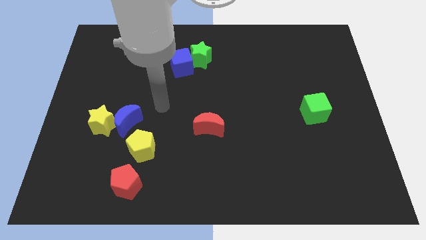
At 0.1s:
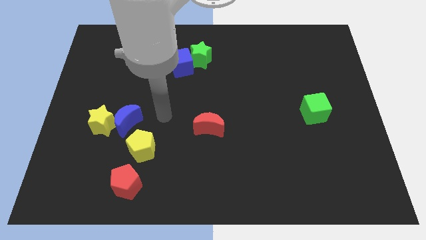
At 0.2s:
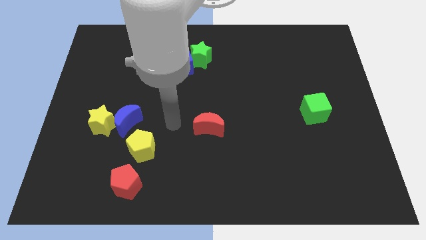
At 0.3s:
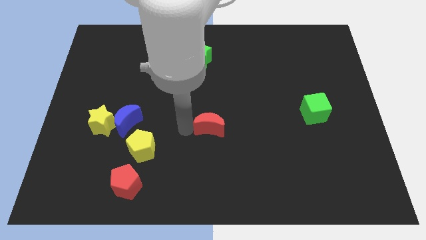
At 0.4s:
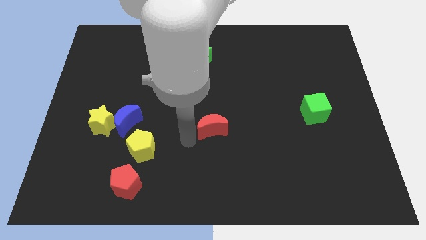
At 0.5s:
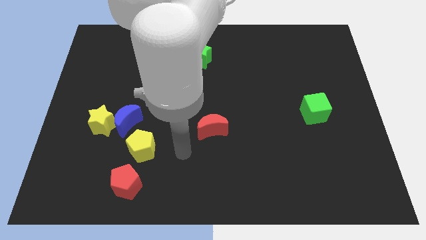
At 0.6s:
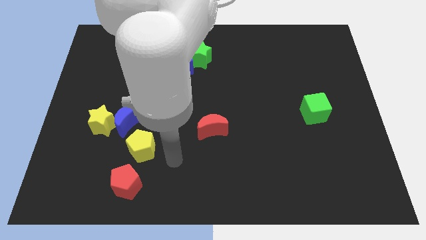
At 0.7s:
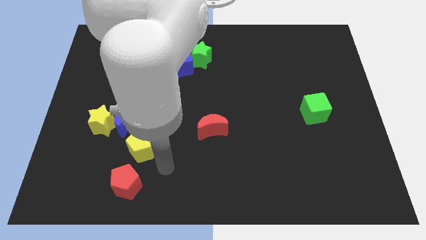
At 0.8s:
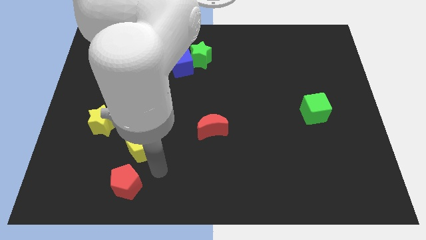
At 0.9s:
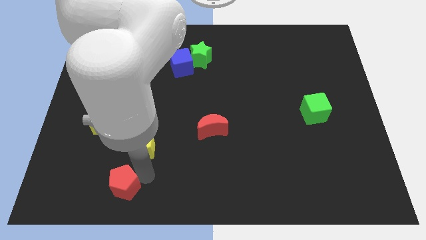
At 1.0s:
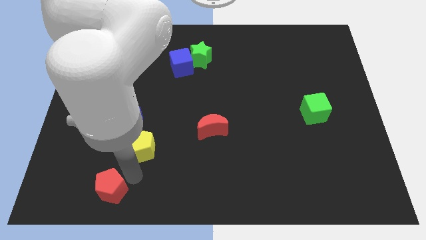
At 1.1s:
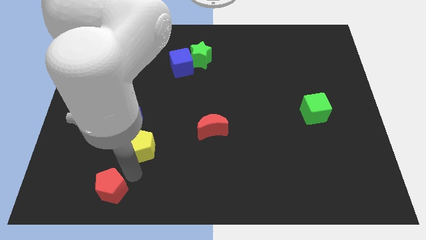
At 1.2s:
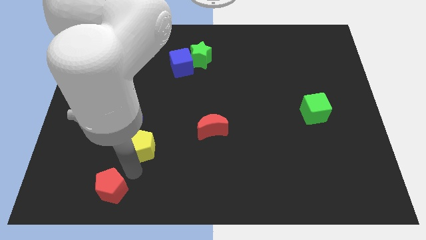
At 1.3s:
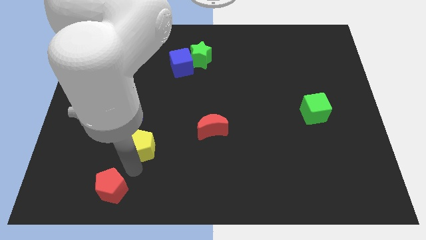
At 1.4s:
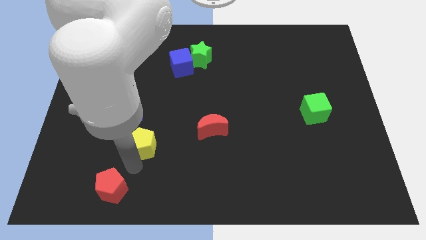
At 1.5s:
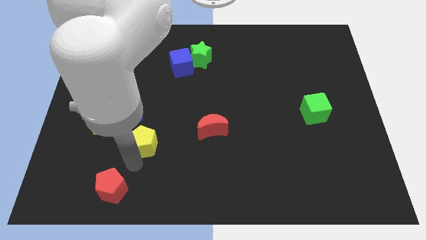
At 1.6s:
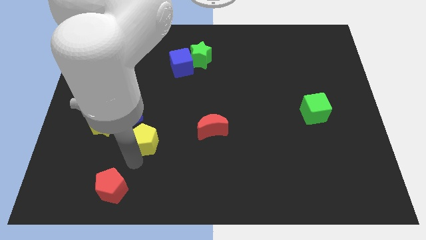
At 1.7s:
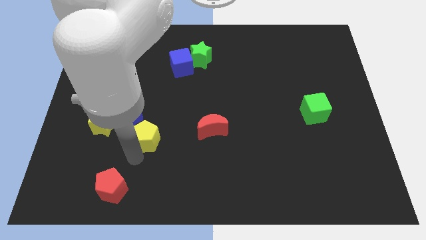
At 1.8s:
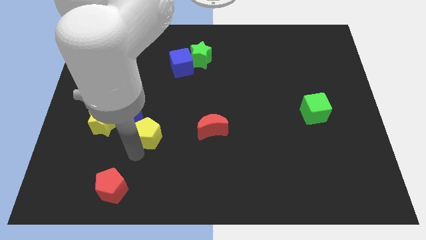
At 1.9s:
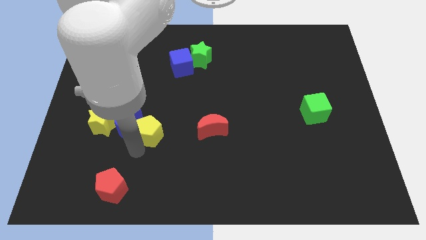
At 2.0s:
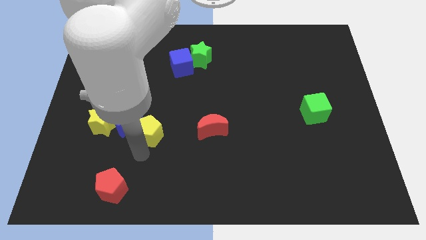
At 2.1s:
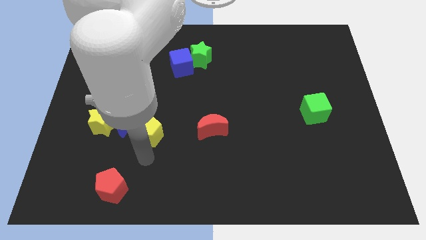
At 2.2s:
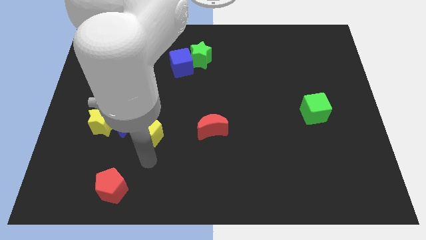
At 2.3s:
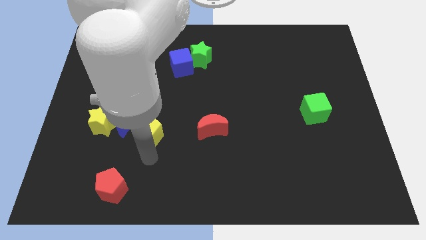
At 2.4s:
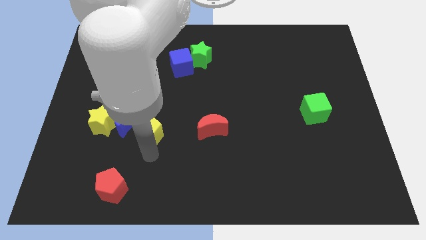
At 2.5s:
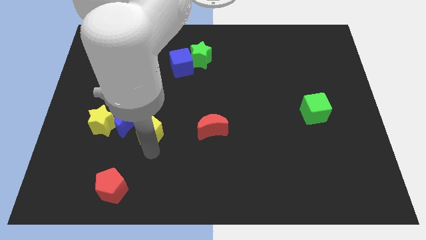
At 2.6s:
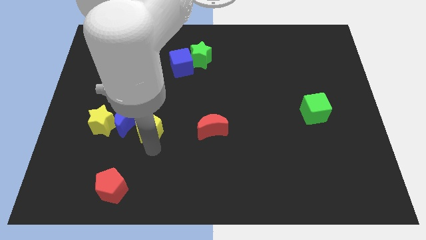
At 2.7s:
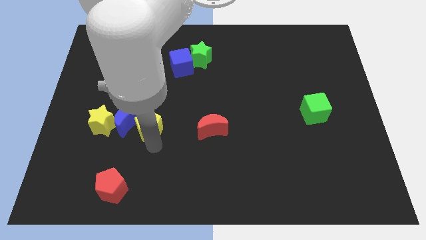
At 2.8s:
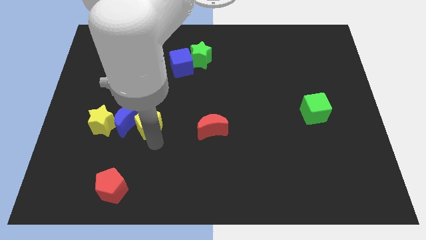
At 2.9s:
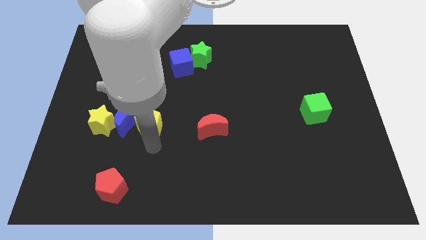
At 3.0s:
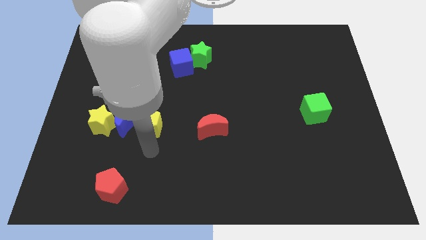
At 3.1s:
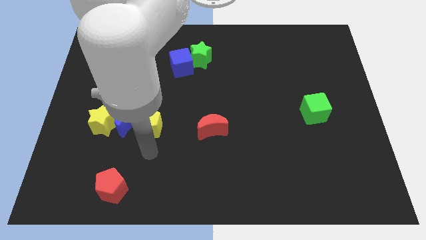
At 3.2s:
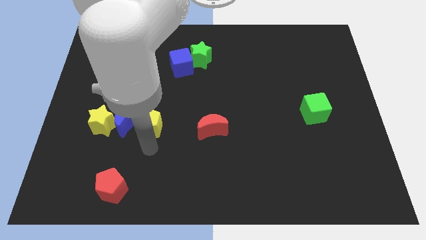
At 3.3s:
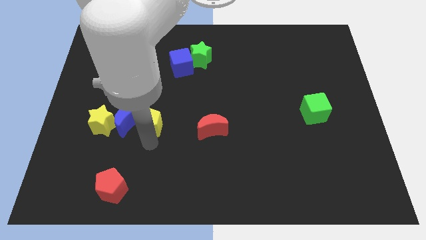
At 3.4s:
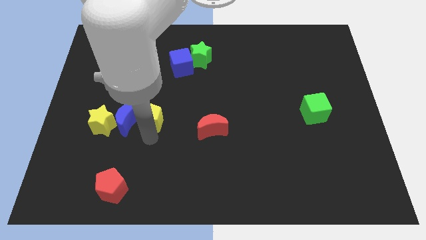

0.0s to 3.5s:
slide the yellow pentagon somewhat upwards

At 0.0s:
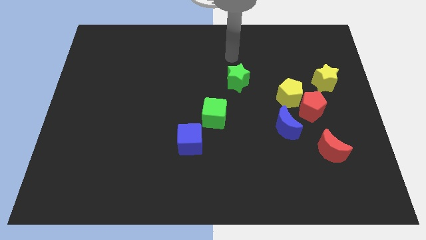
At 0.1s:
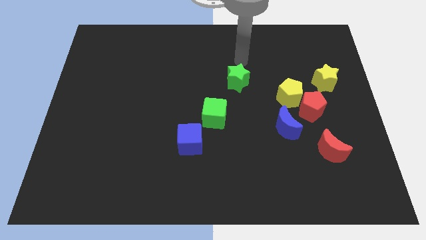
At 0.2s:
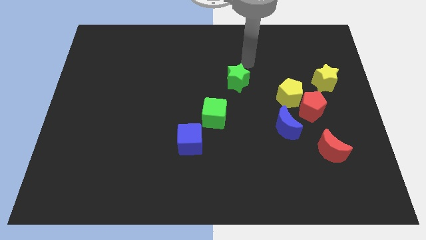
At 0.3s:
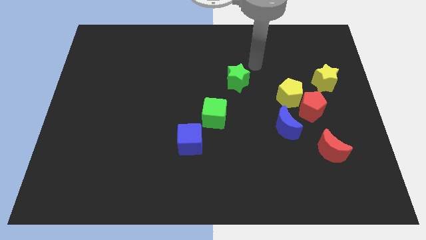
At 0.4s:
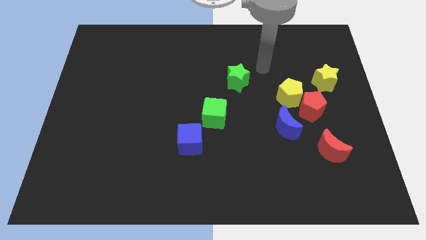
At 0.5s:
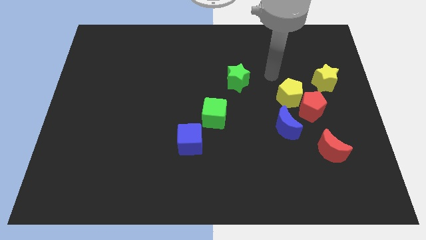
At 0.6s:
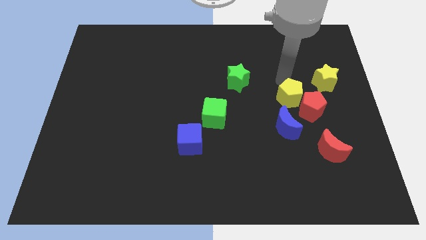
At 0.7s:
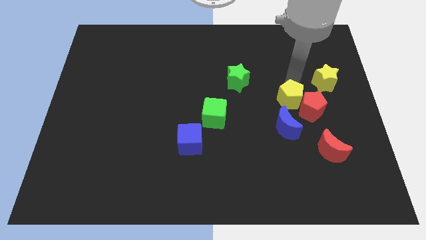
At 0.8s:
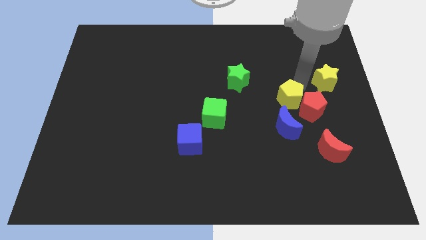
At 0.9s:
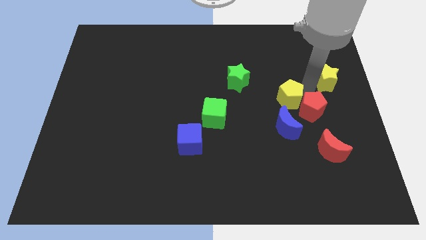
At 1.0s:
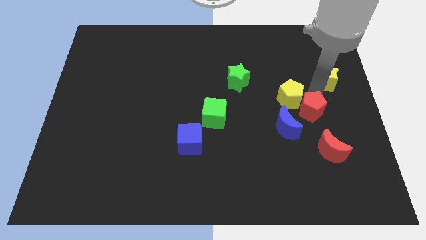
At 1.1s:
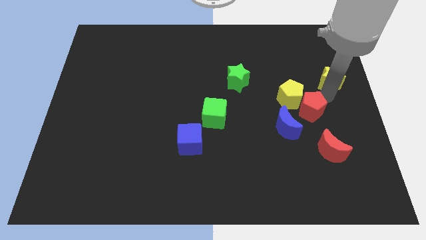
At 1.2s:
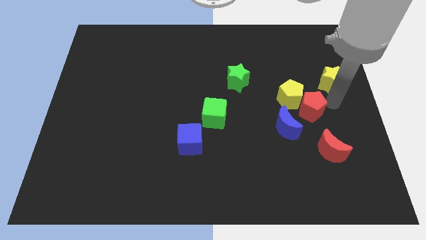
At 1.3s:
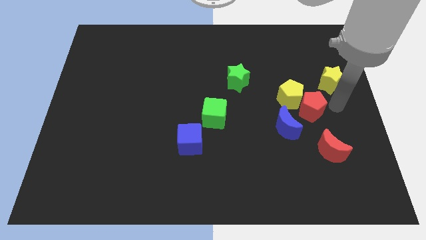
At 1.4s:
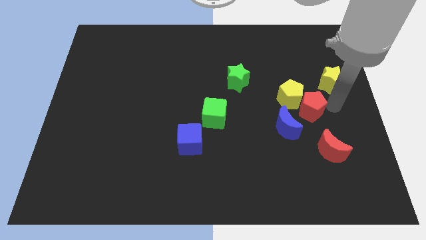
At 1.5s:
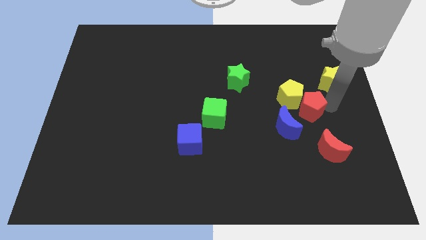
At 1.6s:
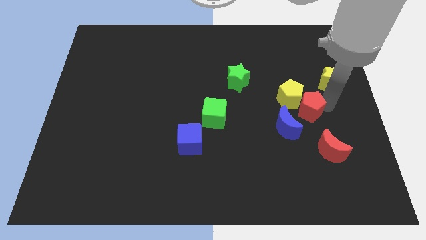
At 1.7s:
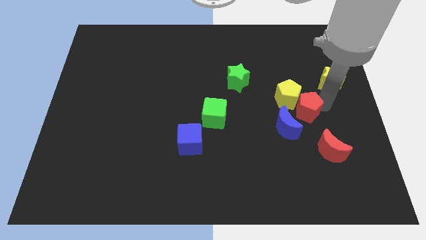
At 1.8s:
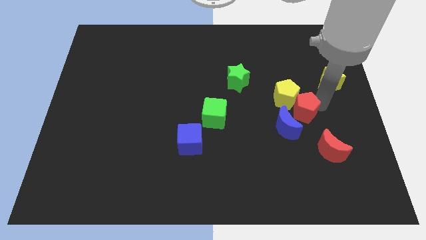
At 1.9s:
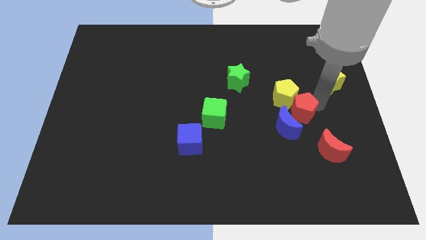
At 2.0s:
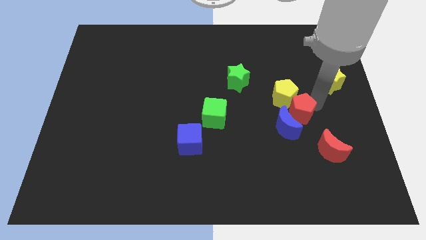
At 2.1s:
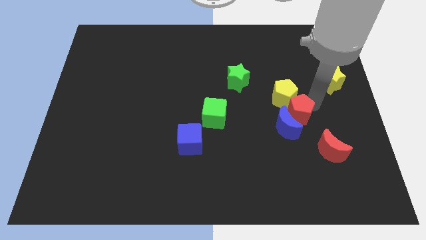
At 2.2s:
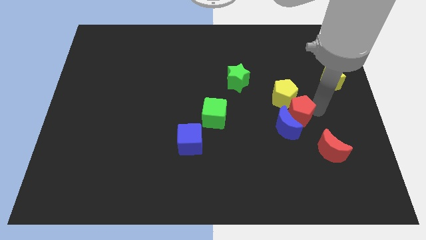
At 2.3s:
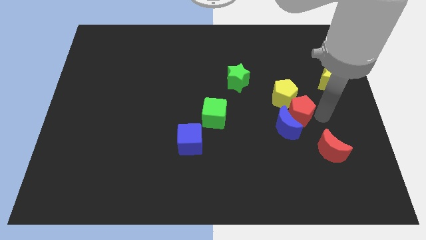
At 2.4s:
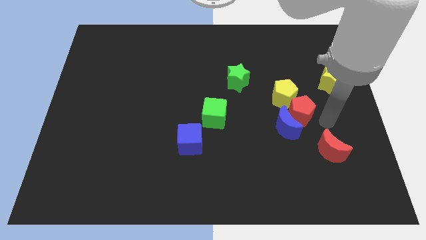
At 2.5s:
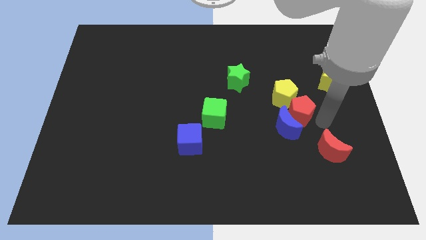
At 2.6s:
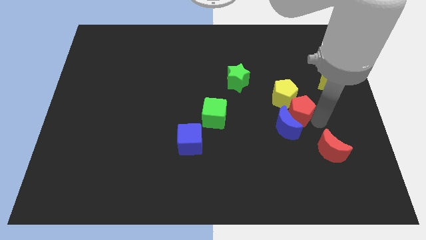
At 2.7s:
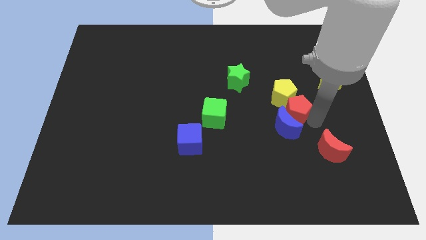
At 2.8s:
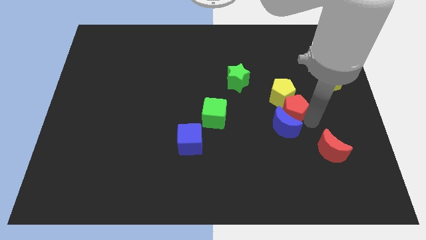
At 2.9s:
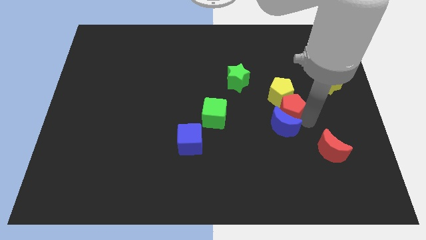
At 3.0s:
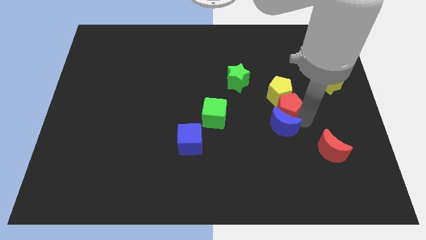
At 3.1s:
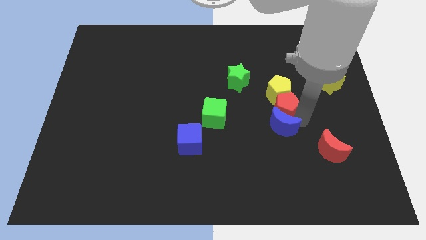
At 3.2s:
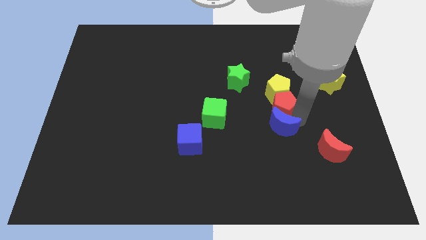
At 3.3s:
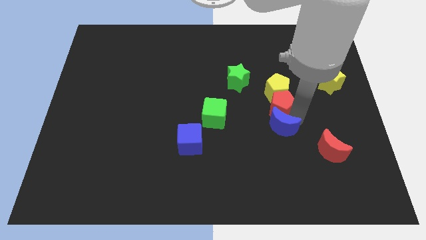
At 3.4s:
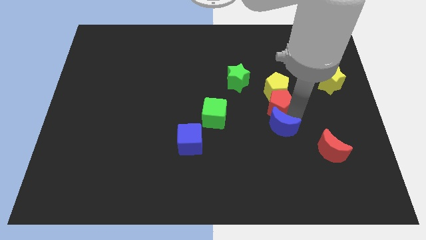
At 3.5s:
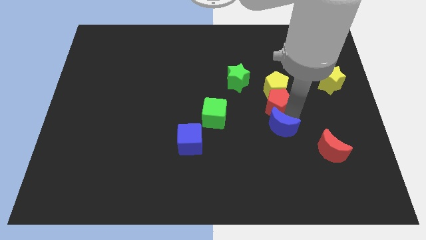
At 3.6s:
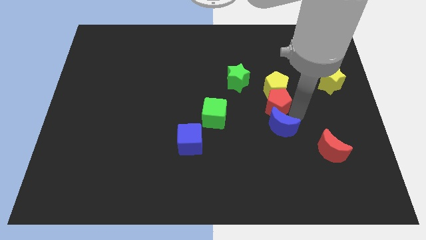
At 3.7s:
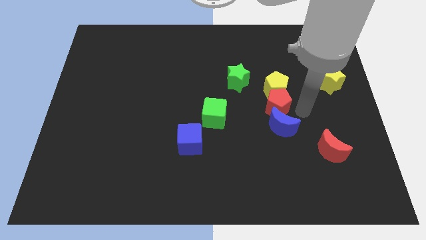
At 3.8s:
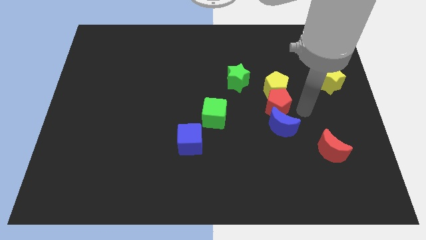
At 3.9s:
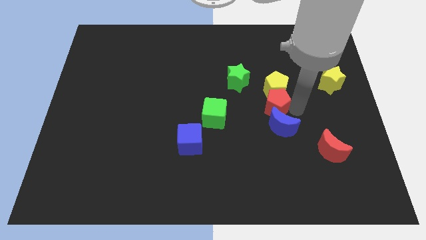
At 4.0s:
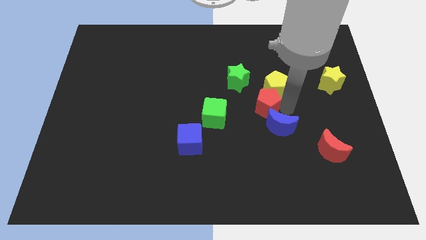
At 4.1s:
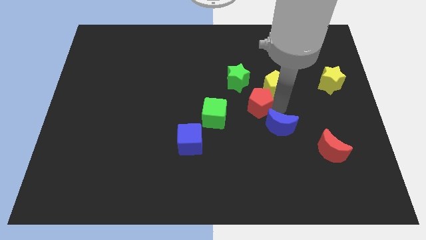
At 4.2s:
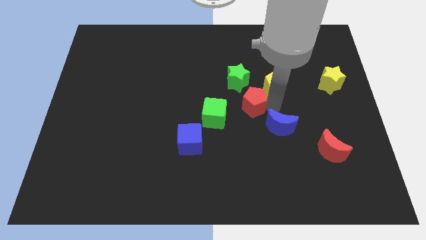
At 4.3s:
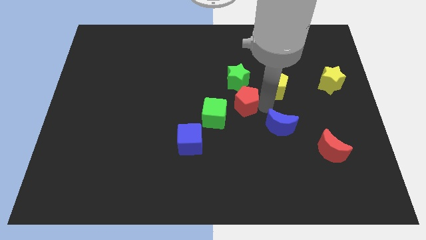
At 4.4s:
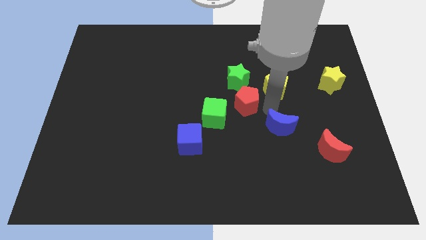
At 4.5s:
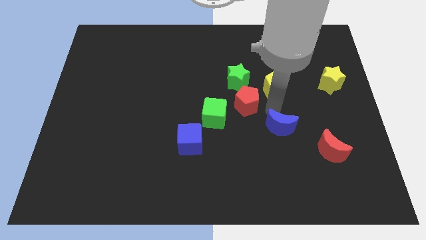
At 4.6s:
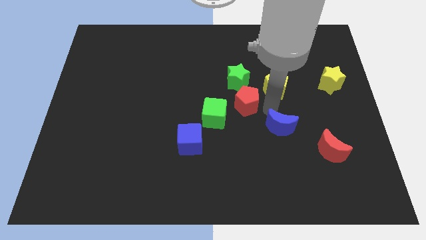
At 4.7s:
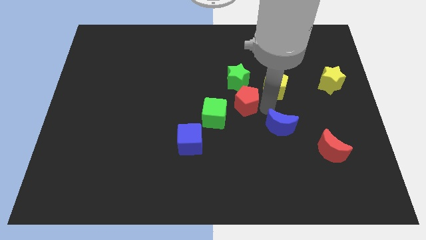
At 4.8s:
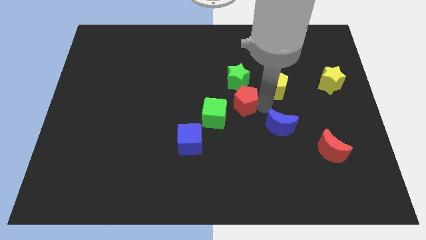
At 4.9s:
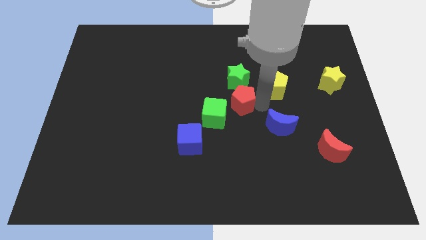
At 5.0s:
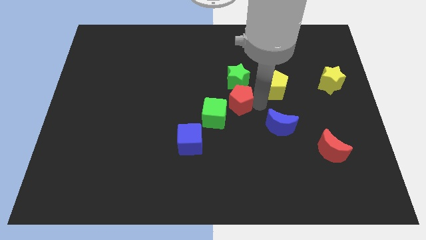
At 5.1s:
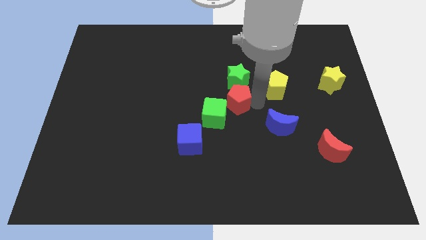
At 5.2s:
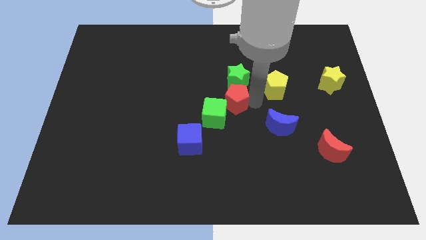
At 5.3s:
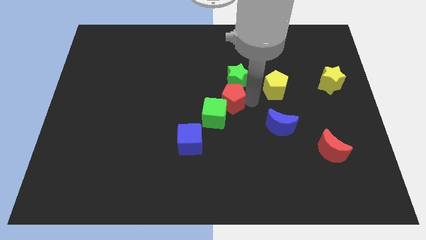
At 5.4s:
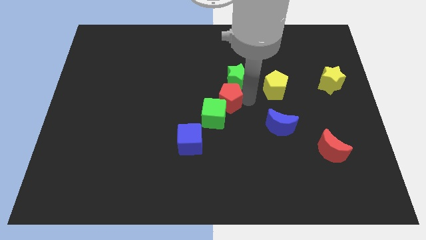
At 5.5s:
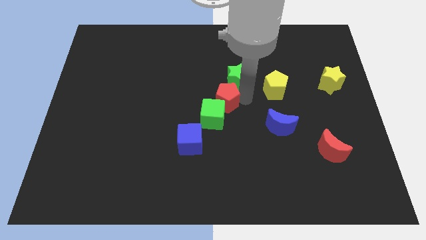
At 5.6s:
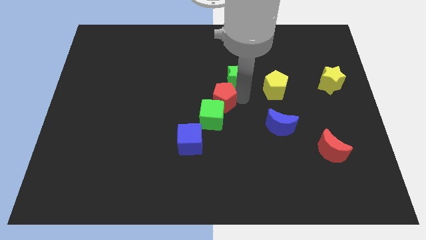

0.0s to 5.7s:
push the red pentagon left
